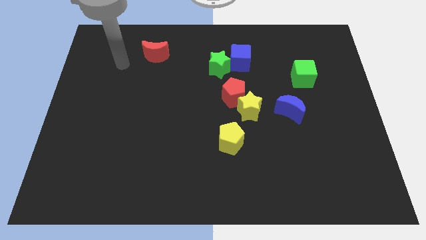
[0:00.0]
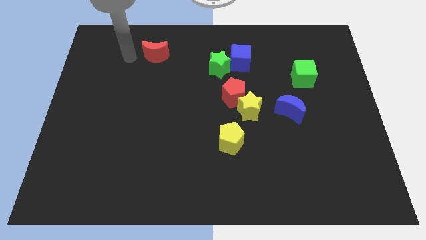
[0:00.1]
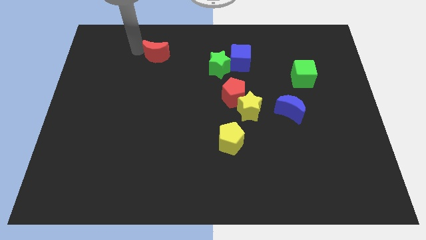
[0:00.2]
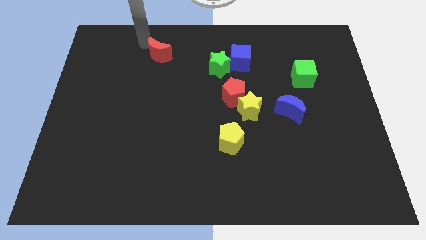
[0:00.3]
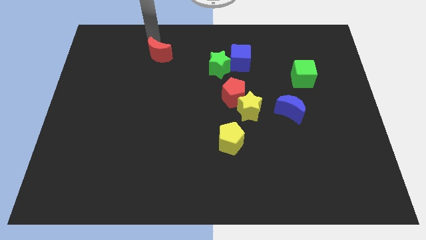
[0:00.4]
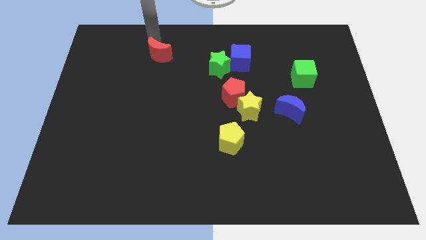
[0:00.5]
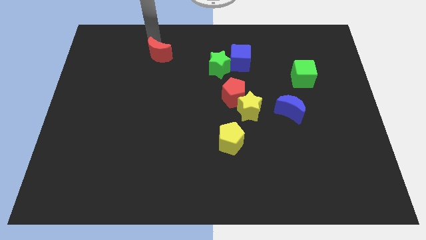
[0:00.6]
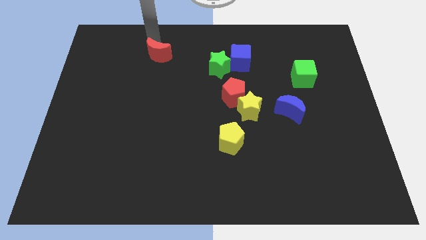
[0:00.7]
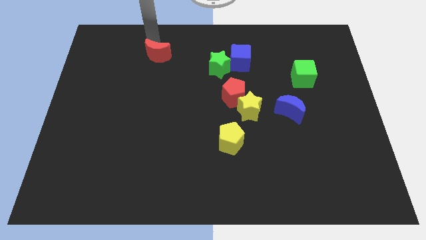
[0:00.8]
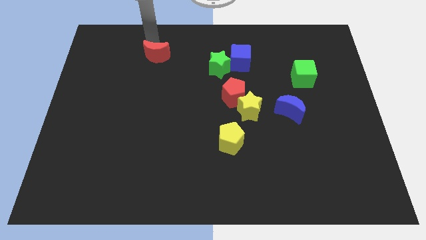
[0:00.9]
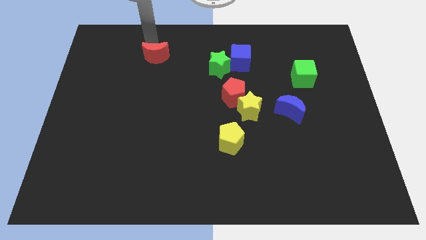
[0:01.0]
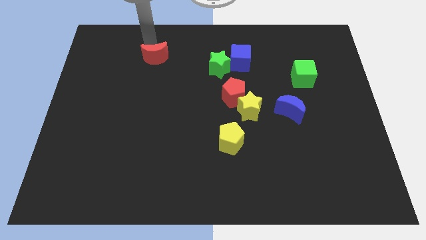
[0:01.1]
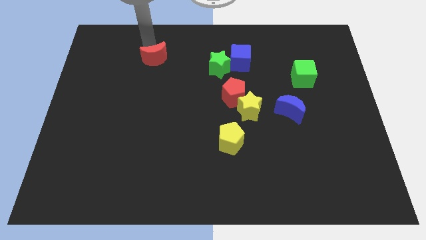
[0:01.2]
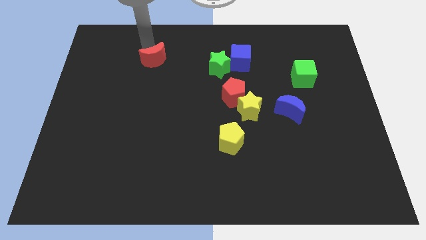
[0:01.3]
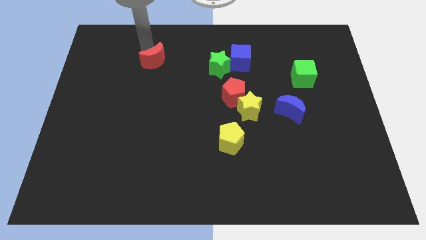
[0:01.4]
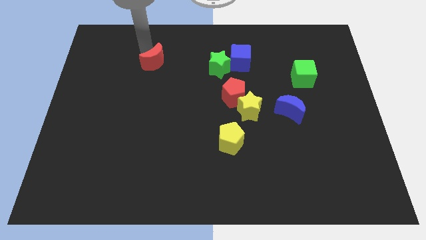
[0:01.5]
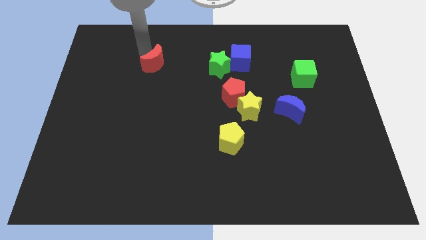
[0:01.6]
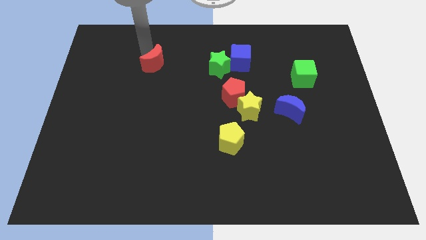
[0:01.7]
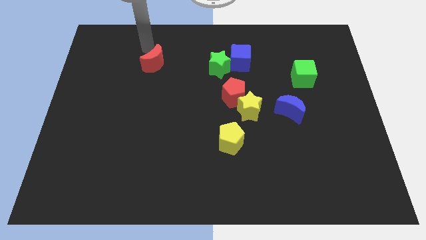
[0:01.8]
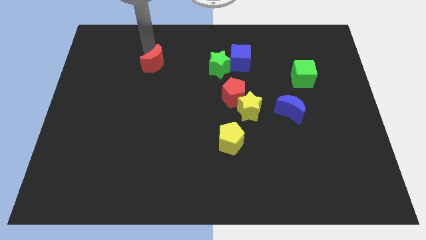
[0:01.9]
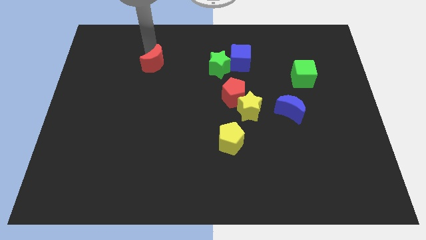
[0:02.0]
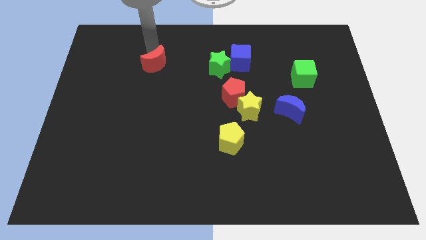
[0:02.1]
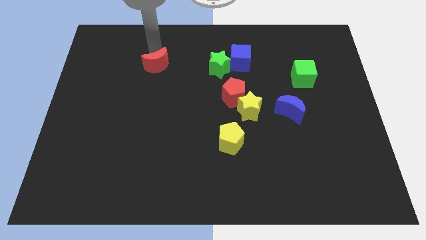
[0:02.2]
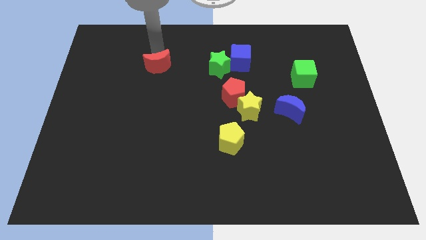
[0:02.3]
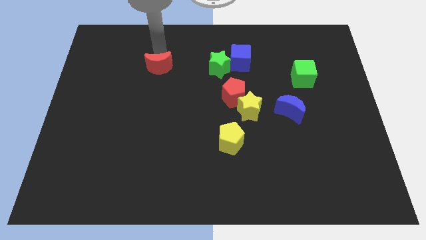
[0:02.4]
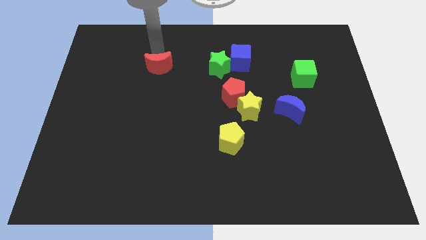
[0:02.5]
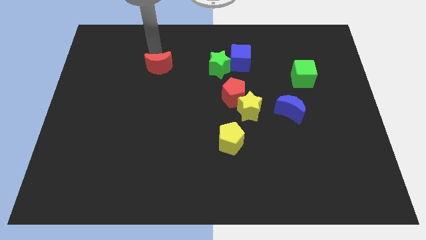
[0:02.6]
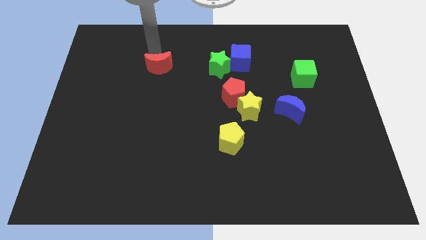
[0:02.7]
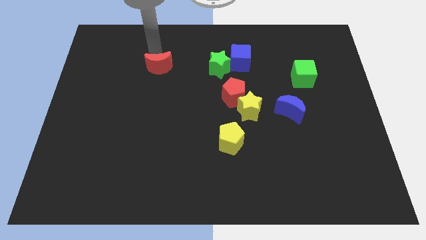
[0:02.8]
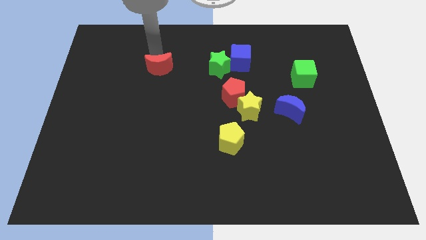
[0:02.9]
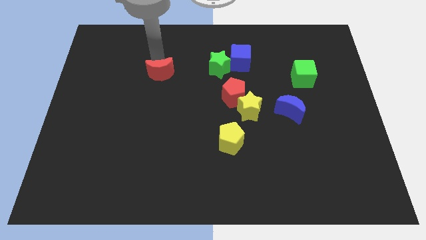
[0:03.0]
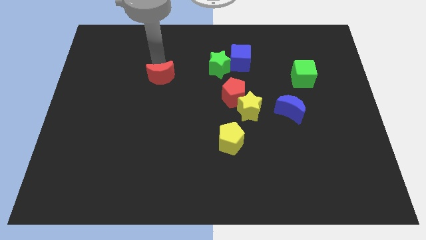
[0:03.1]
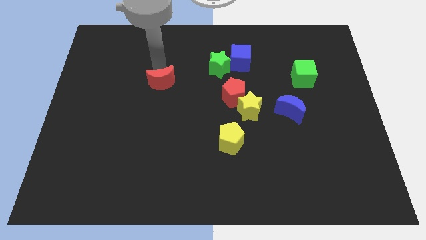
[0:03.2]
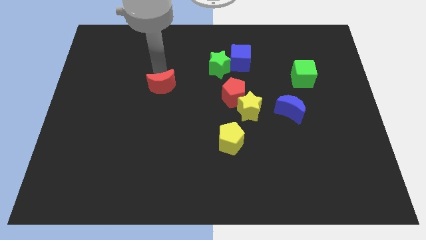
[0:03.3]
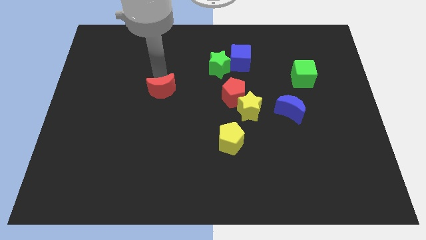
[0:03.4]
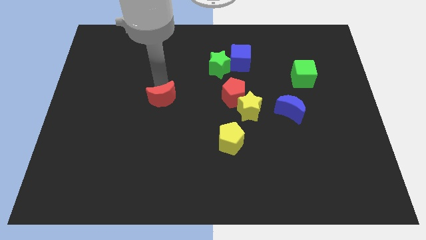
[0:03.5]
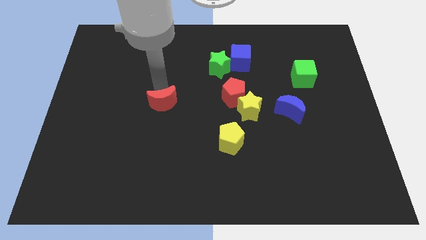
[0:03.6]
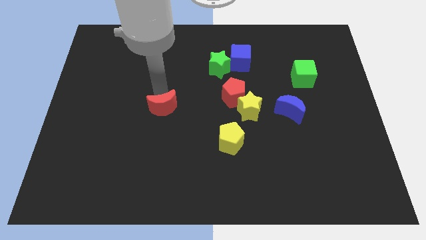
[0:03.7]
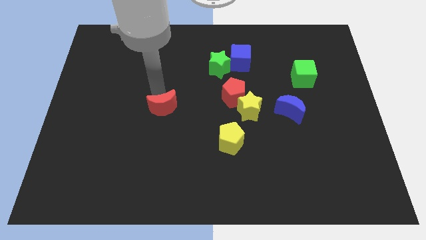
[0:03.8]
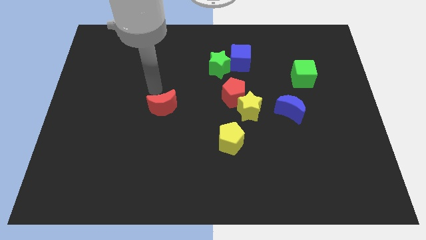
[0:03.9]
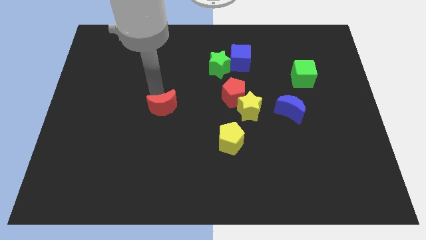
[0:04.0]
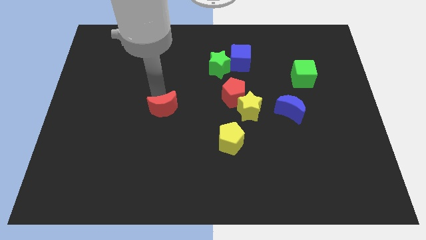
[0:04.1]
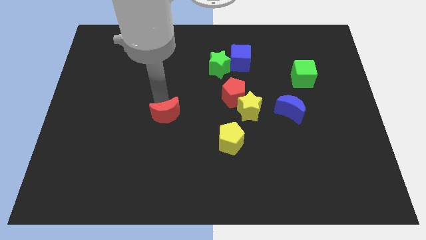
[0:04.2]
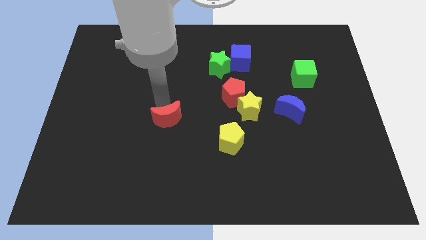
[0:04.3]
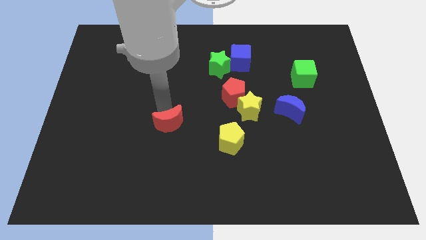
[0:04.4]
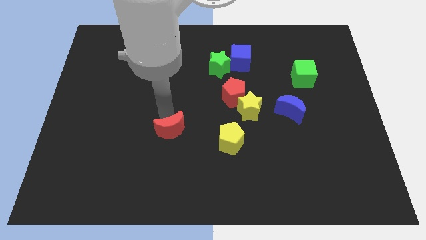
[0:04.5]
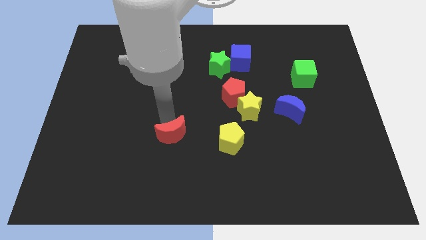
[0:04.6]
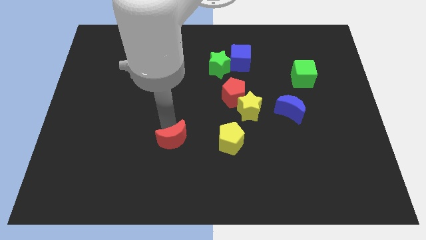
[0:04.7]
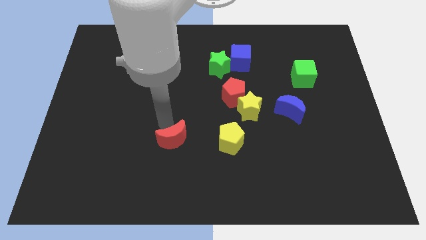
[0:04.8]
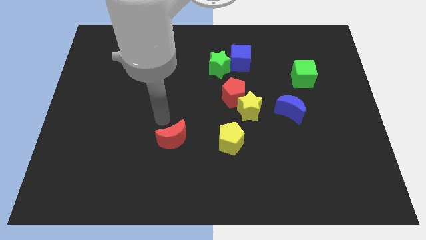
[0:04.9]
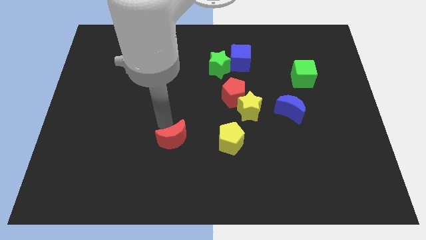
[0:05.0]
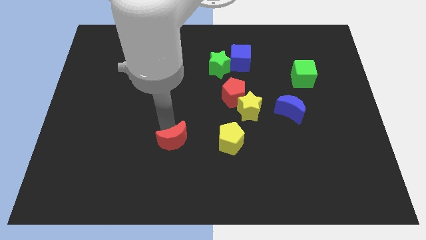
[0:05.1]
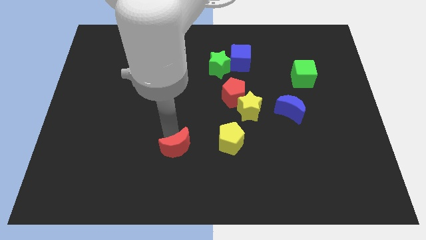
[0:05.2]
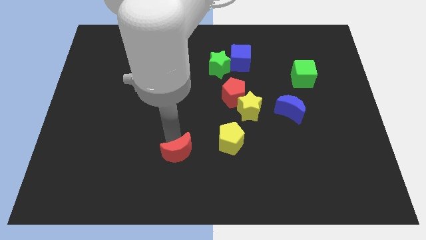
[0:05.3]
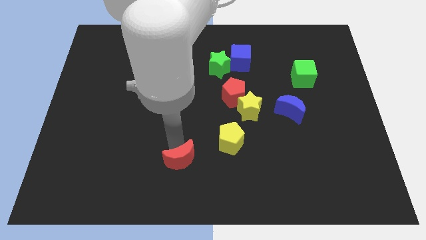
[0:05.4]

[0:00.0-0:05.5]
put the red moon to the bottom

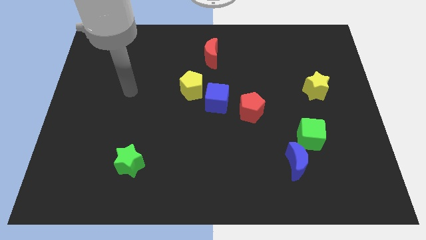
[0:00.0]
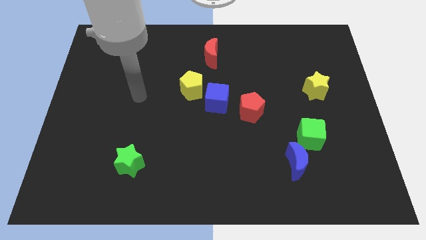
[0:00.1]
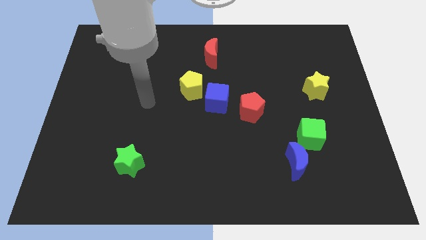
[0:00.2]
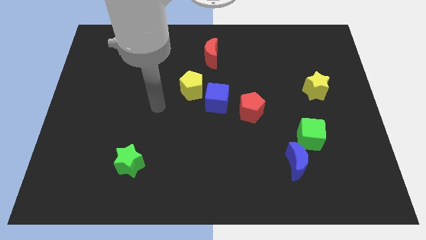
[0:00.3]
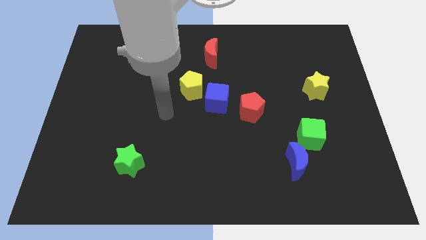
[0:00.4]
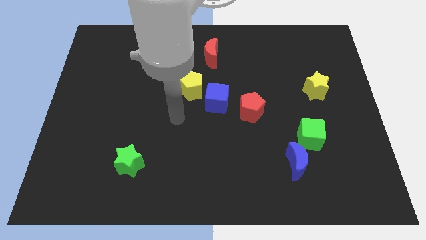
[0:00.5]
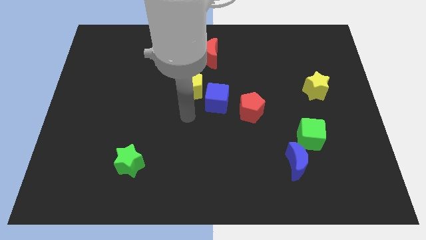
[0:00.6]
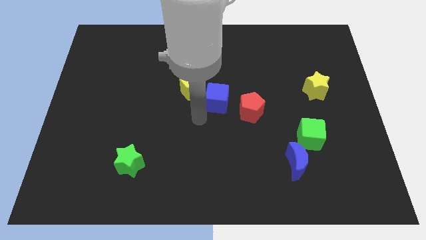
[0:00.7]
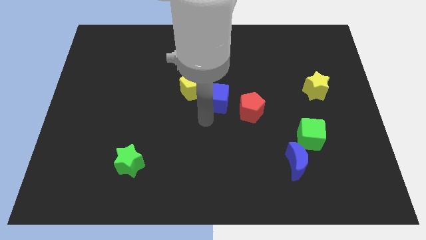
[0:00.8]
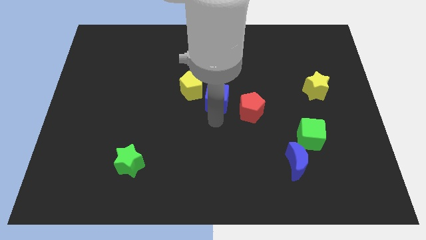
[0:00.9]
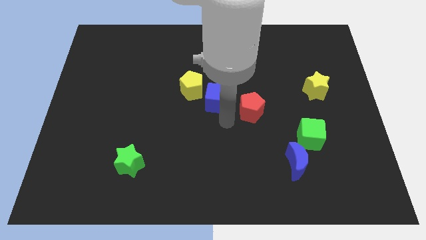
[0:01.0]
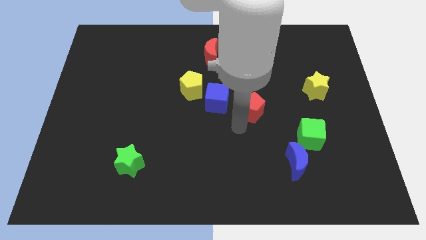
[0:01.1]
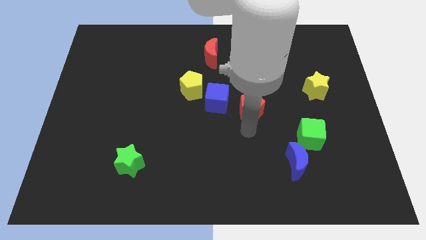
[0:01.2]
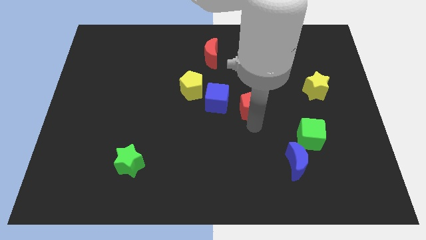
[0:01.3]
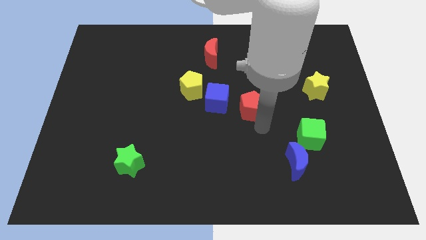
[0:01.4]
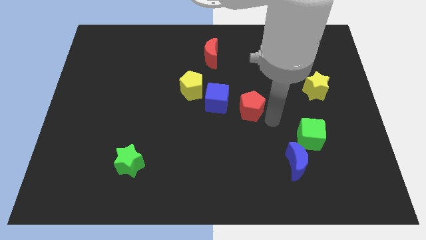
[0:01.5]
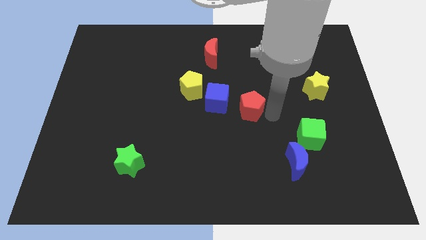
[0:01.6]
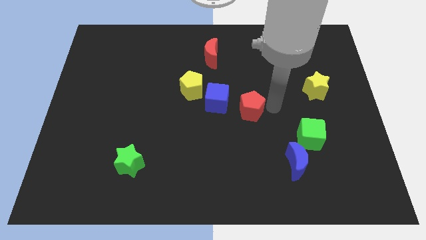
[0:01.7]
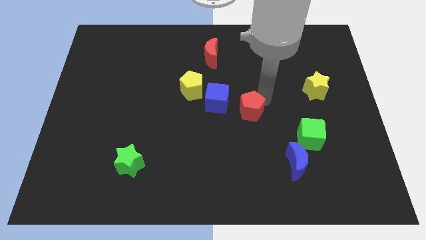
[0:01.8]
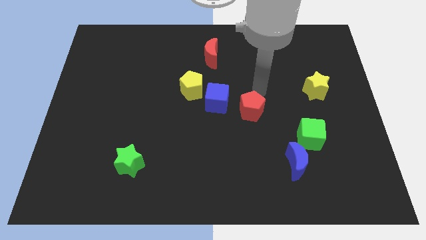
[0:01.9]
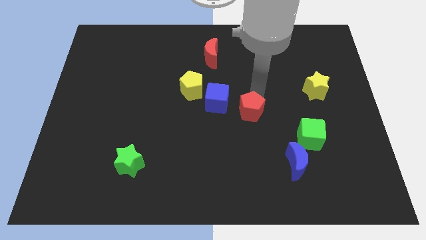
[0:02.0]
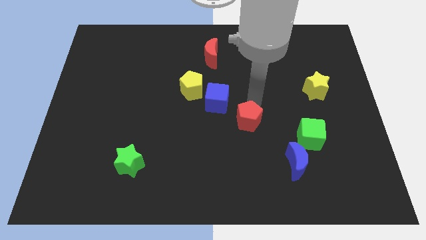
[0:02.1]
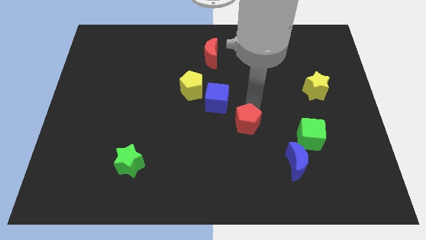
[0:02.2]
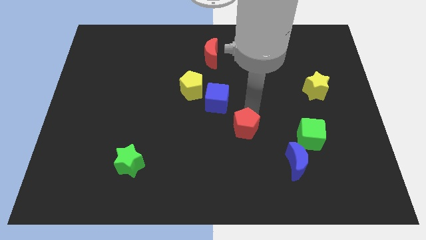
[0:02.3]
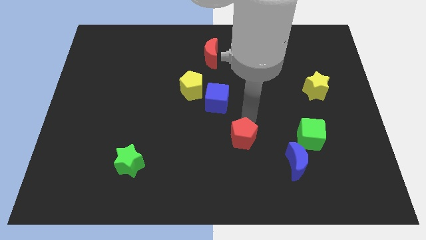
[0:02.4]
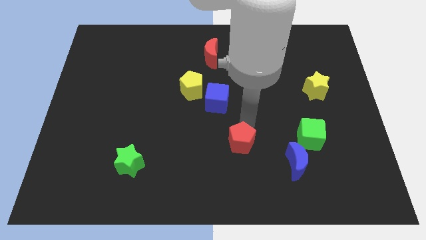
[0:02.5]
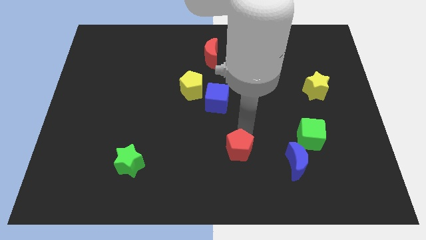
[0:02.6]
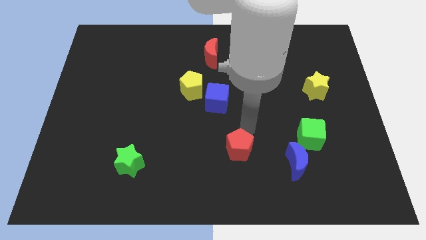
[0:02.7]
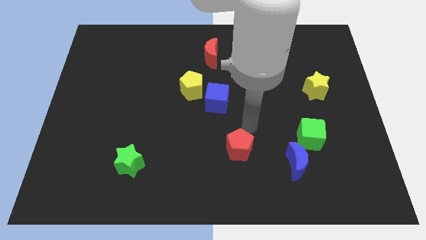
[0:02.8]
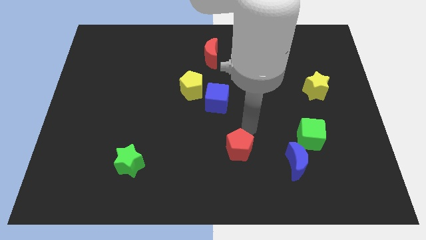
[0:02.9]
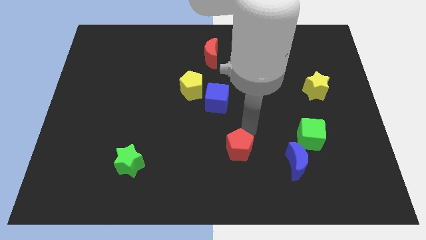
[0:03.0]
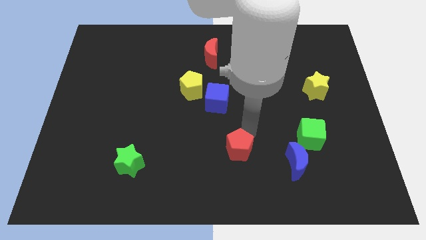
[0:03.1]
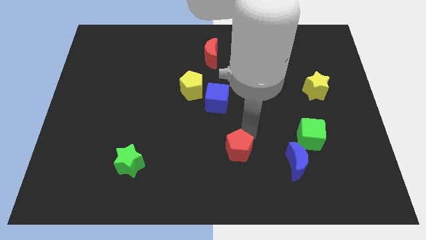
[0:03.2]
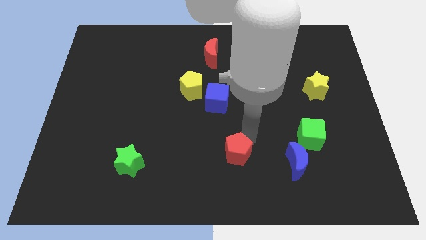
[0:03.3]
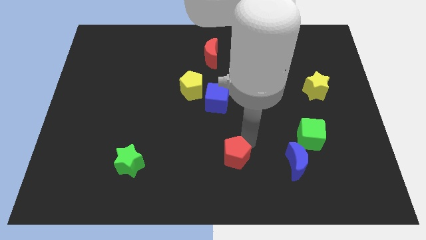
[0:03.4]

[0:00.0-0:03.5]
push the red pentagon to the bottom side
